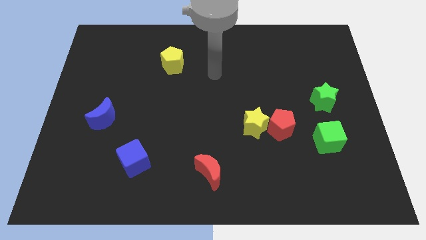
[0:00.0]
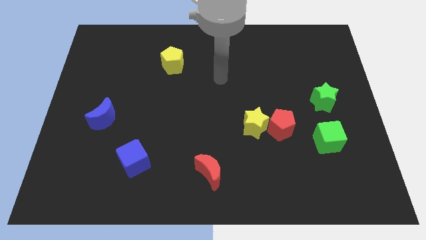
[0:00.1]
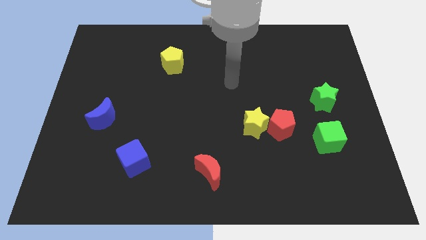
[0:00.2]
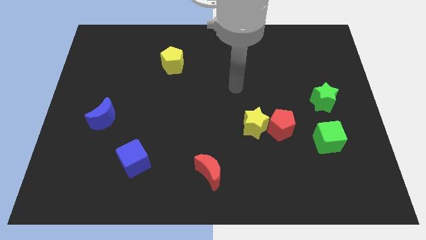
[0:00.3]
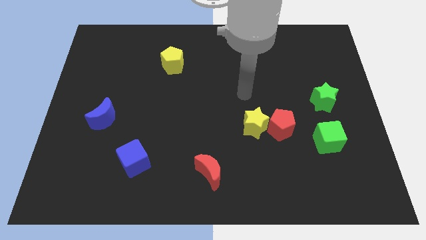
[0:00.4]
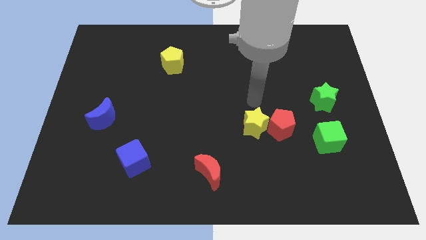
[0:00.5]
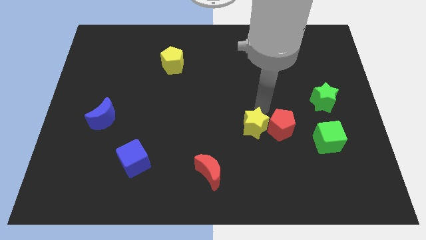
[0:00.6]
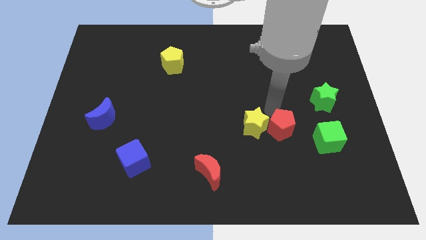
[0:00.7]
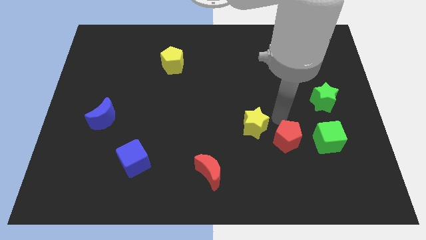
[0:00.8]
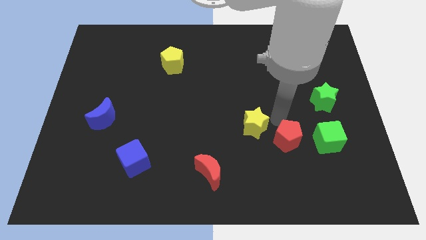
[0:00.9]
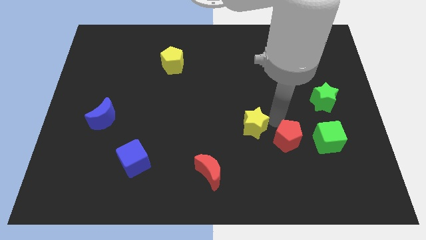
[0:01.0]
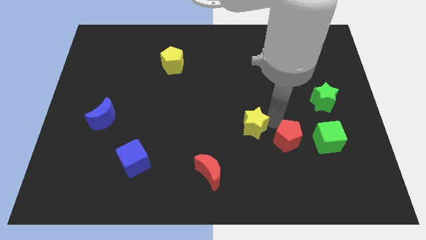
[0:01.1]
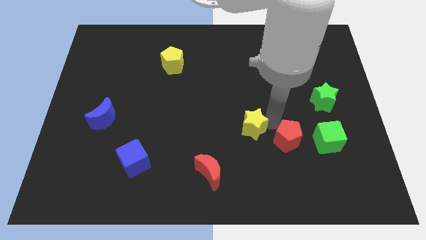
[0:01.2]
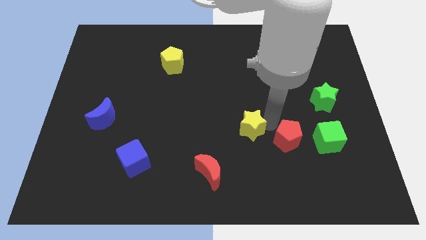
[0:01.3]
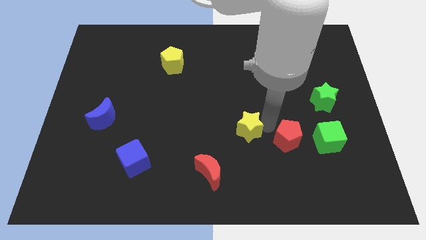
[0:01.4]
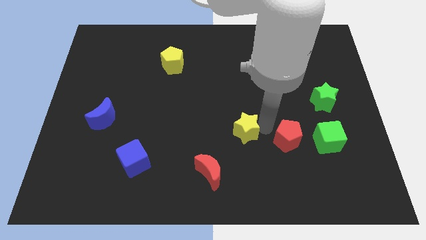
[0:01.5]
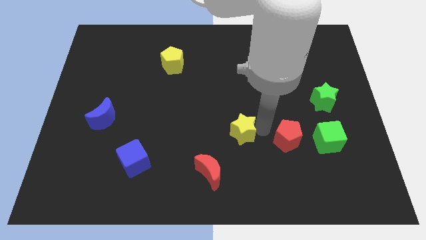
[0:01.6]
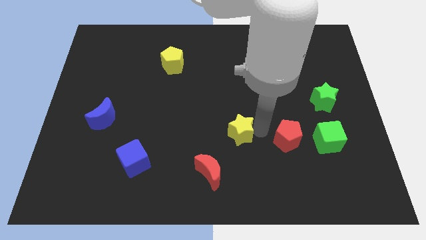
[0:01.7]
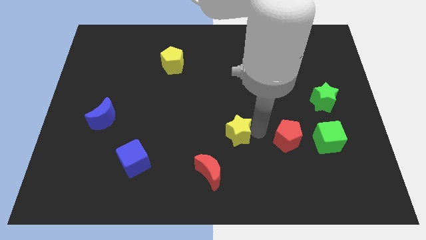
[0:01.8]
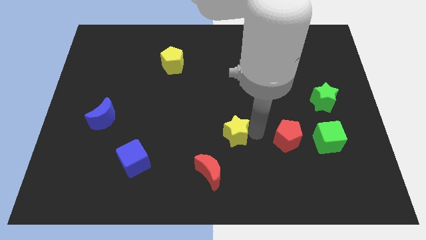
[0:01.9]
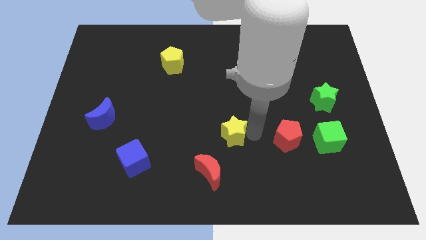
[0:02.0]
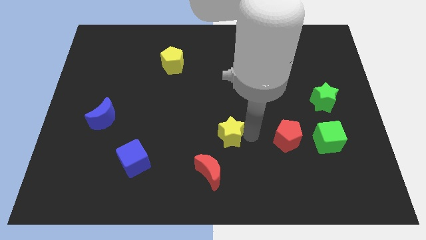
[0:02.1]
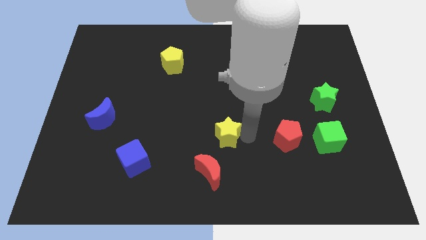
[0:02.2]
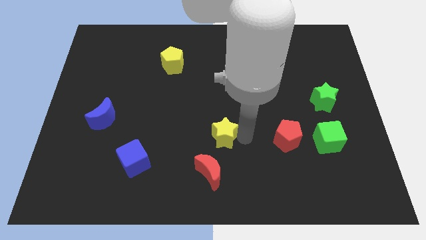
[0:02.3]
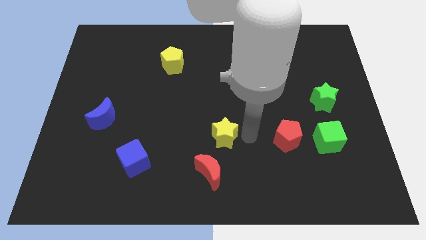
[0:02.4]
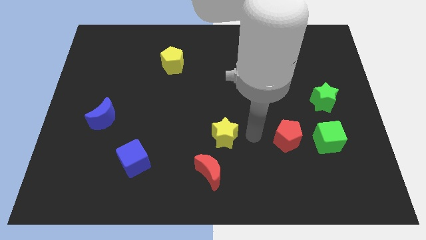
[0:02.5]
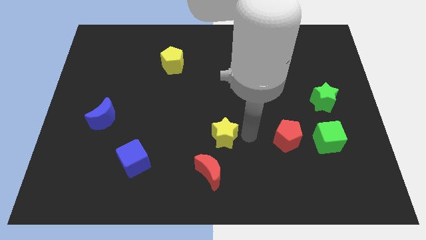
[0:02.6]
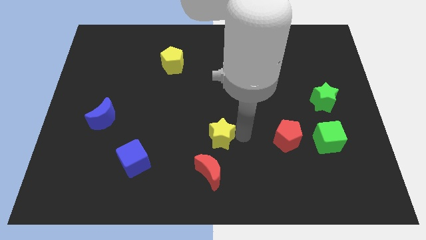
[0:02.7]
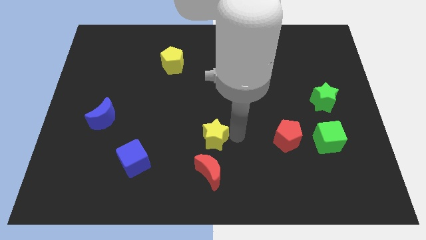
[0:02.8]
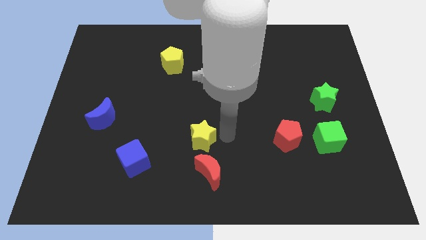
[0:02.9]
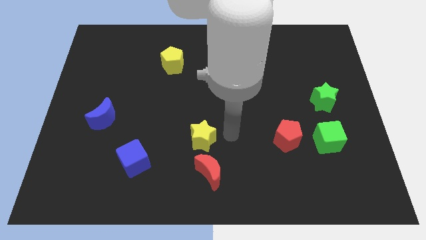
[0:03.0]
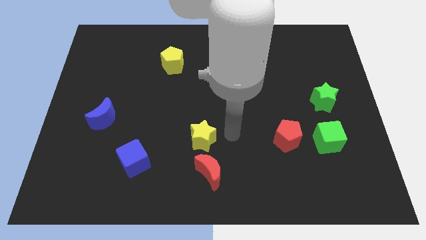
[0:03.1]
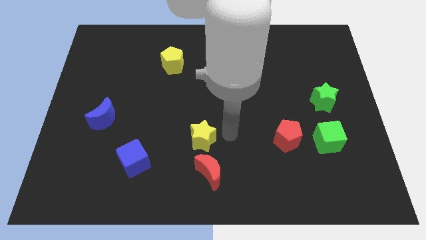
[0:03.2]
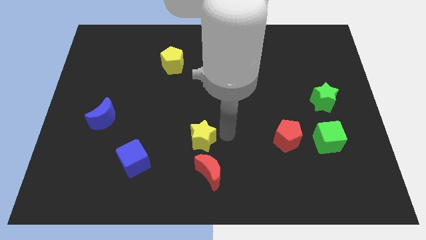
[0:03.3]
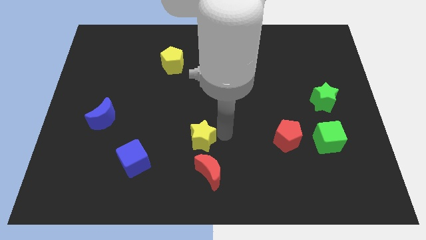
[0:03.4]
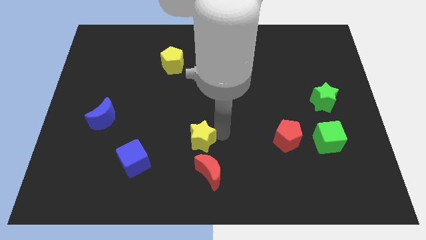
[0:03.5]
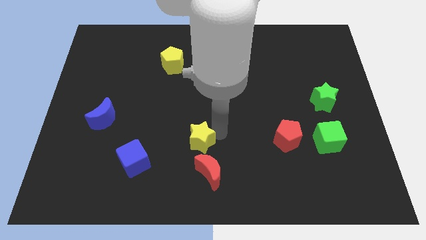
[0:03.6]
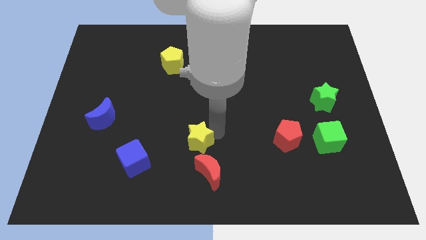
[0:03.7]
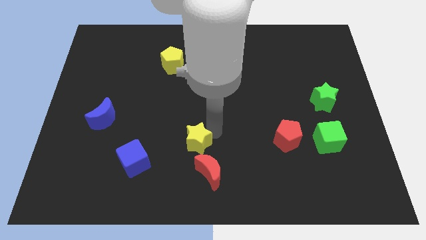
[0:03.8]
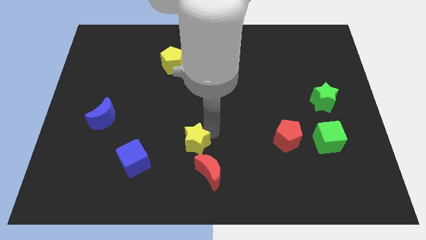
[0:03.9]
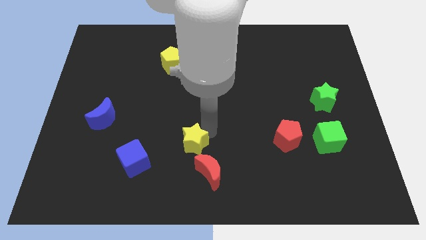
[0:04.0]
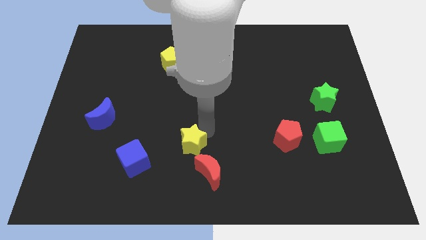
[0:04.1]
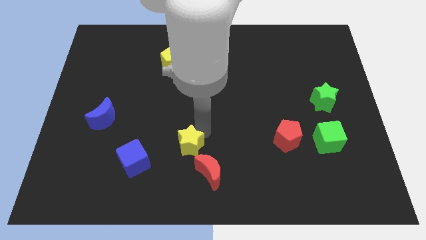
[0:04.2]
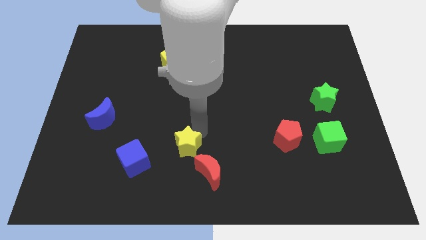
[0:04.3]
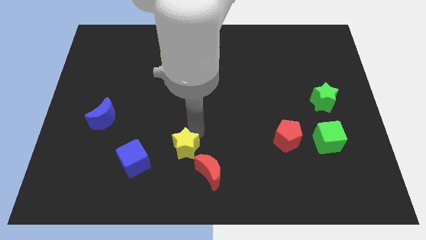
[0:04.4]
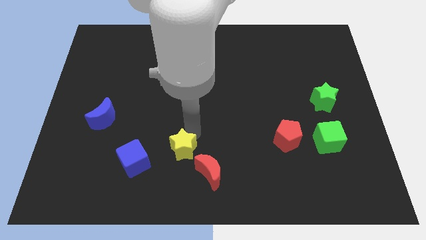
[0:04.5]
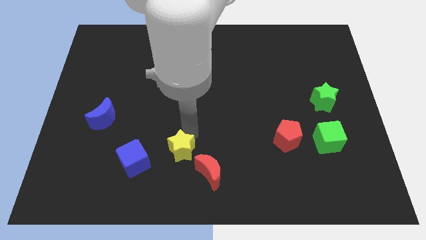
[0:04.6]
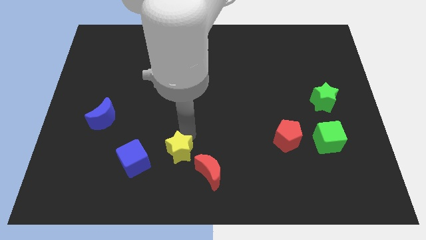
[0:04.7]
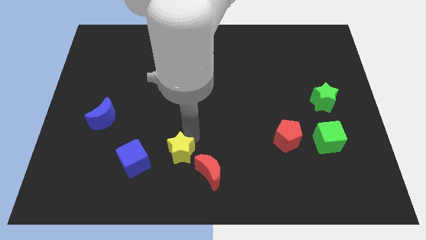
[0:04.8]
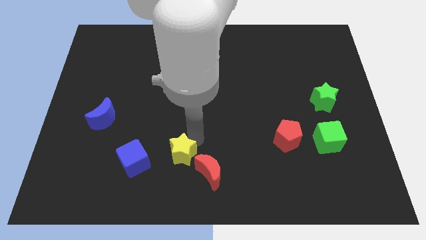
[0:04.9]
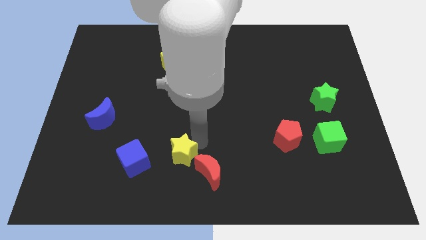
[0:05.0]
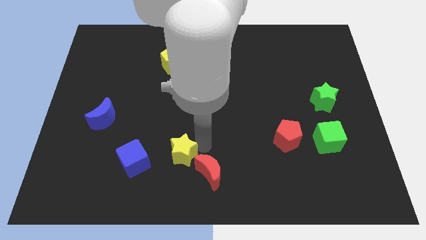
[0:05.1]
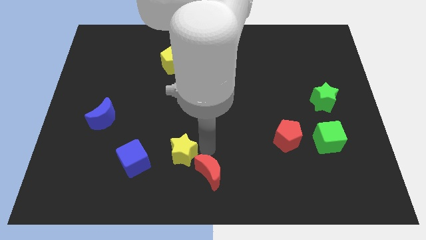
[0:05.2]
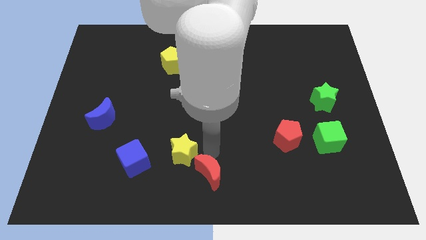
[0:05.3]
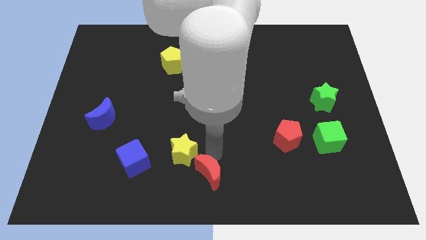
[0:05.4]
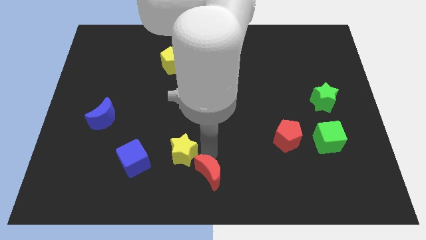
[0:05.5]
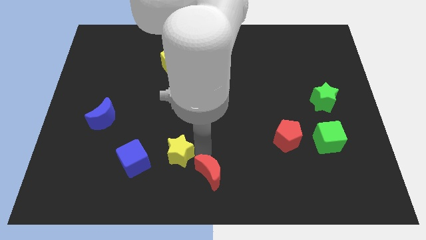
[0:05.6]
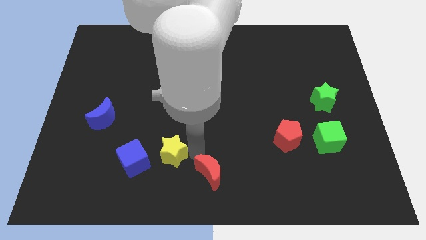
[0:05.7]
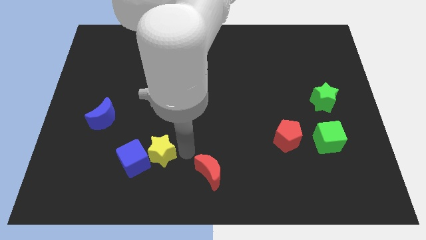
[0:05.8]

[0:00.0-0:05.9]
slide the yellow star close to the blue cube
